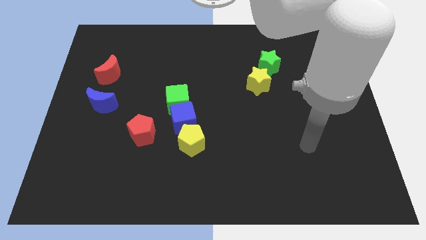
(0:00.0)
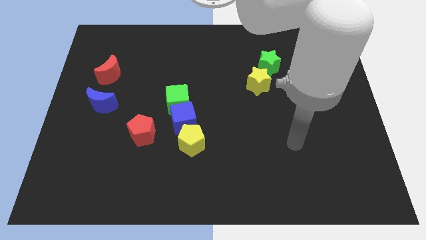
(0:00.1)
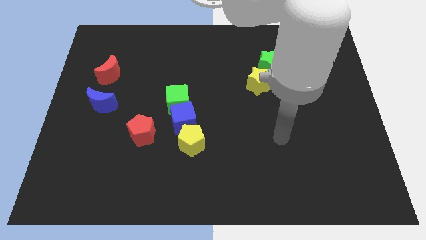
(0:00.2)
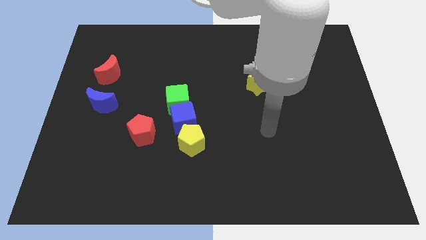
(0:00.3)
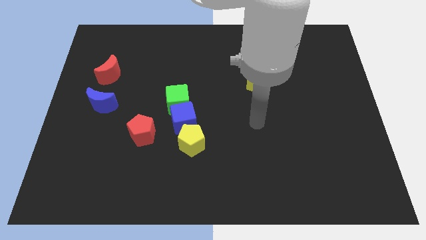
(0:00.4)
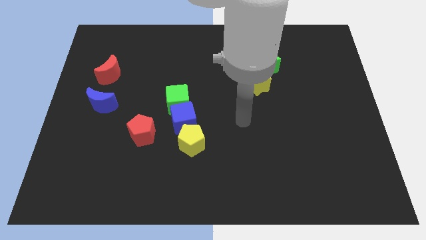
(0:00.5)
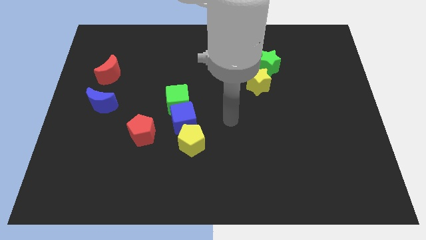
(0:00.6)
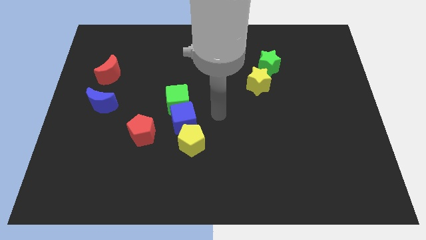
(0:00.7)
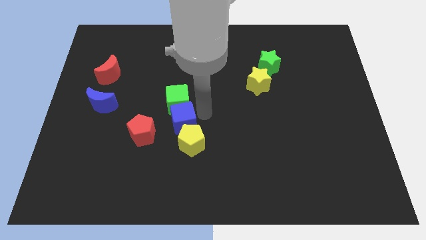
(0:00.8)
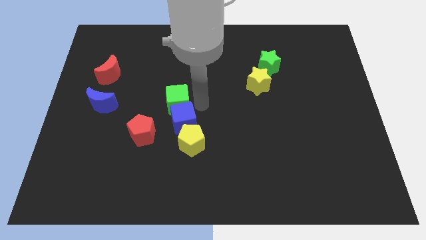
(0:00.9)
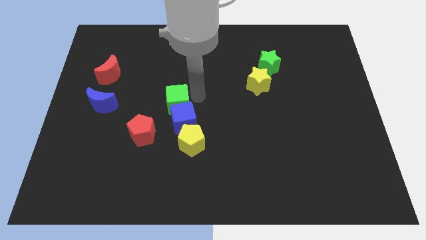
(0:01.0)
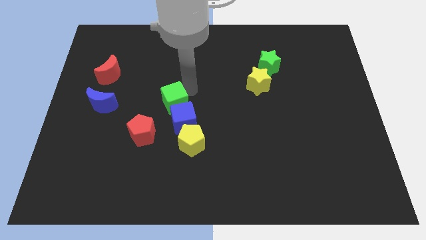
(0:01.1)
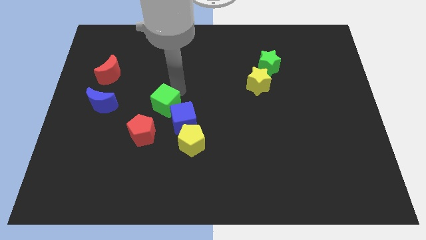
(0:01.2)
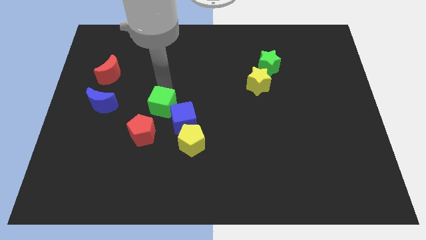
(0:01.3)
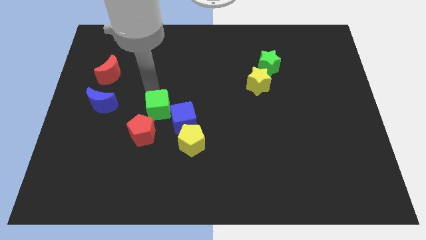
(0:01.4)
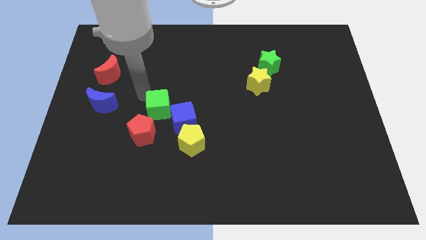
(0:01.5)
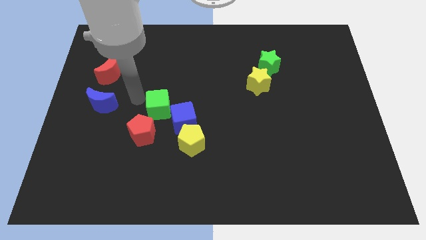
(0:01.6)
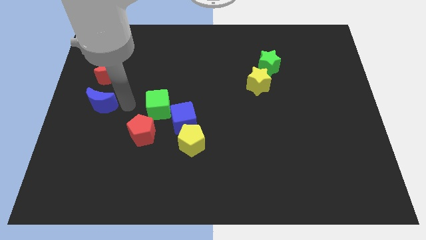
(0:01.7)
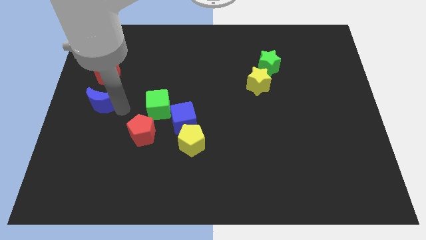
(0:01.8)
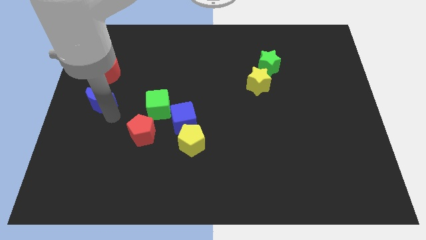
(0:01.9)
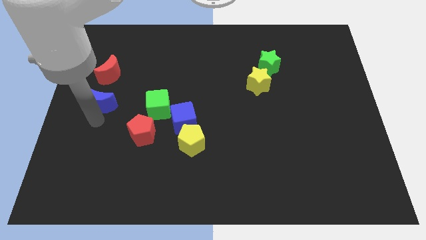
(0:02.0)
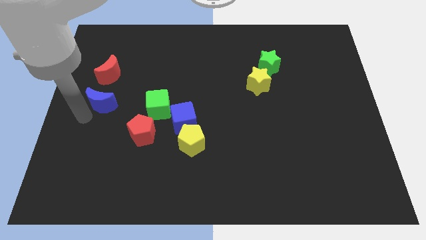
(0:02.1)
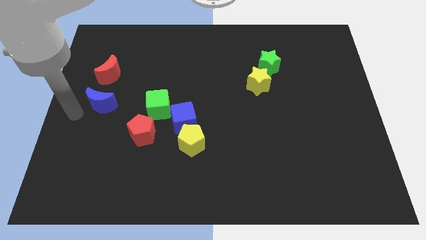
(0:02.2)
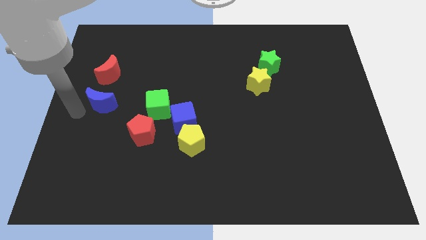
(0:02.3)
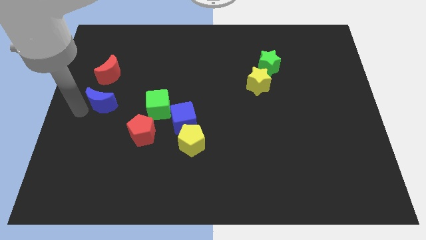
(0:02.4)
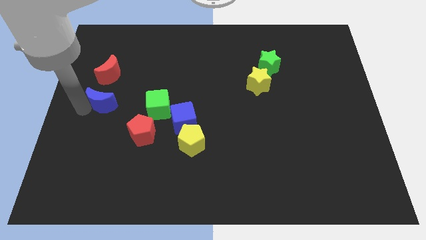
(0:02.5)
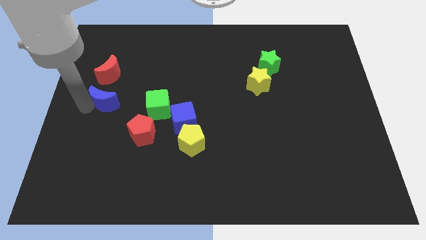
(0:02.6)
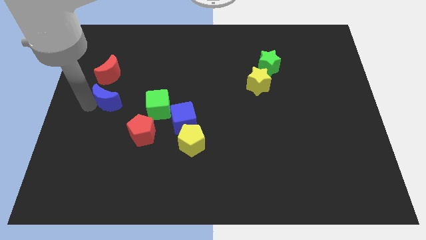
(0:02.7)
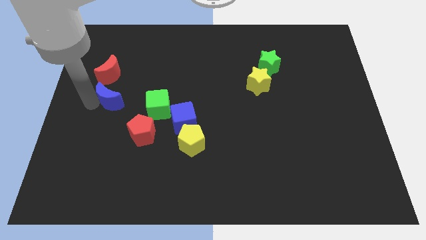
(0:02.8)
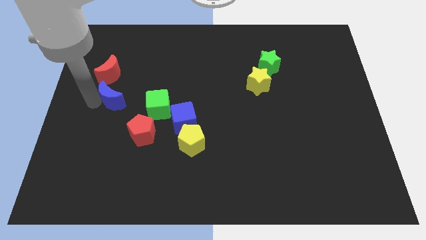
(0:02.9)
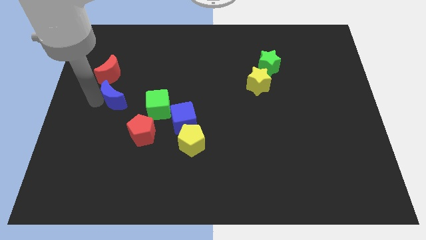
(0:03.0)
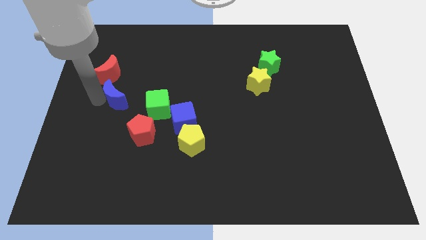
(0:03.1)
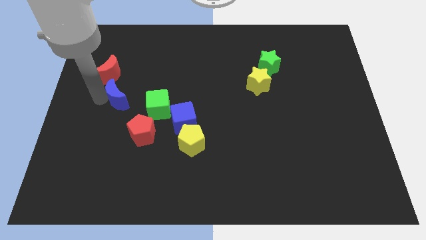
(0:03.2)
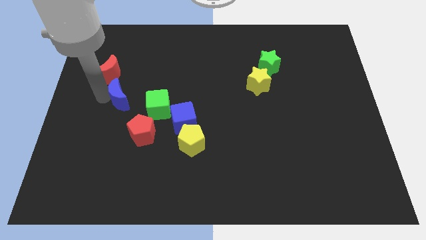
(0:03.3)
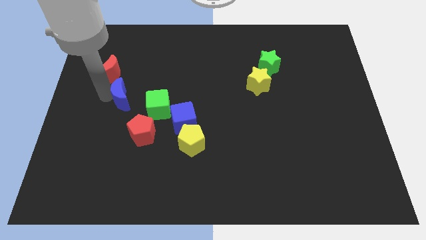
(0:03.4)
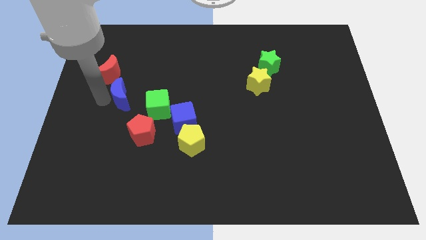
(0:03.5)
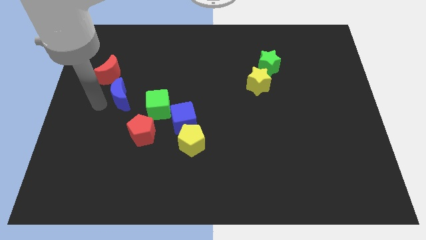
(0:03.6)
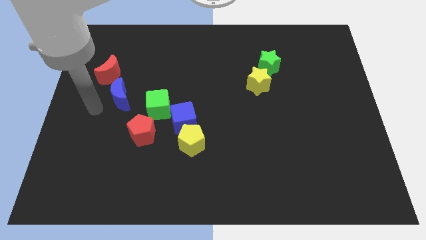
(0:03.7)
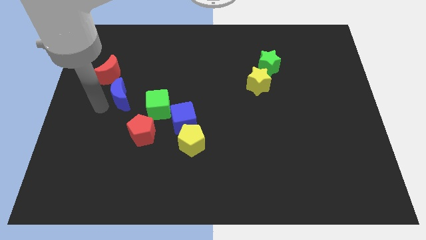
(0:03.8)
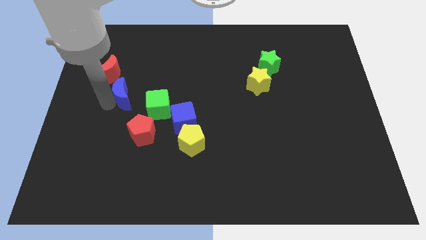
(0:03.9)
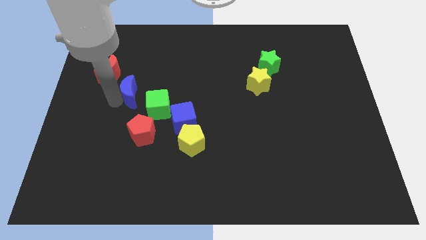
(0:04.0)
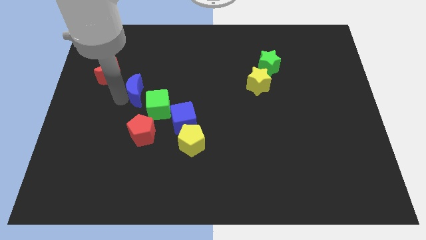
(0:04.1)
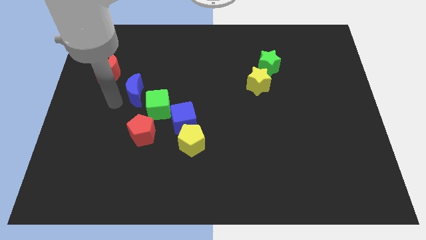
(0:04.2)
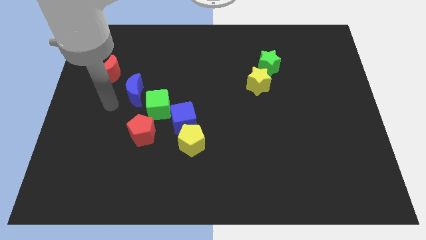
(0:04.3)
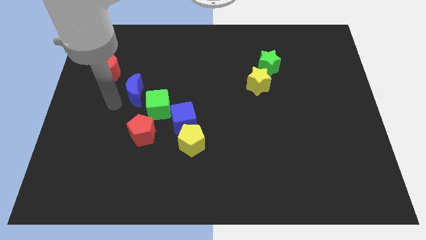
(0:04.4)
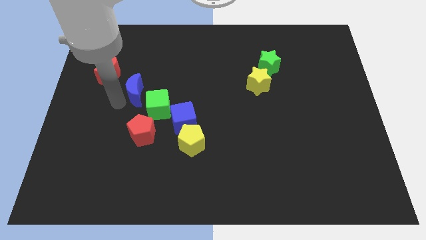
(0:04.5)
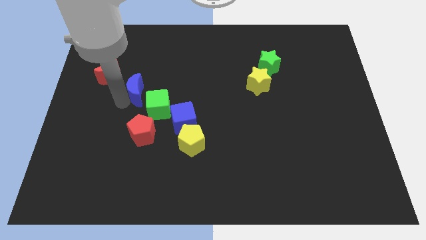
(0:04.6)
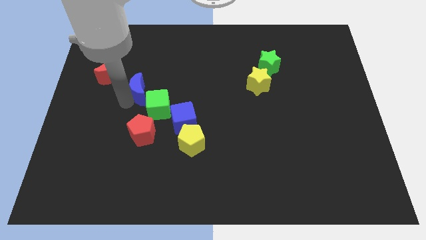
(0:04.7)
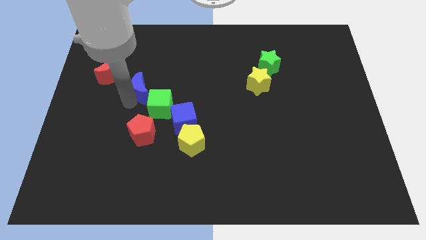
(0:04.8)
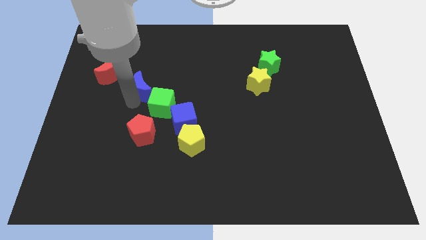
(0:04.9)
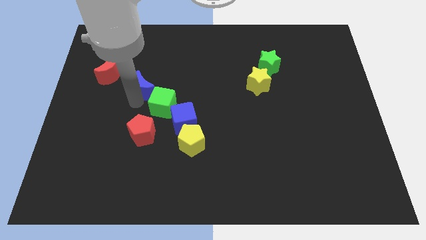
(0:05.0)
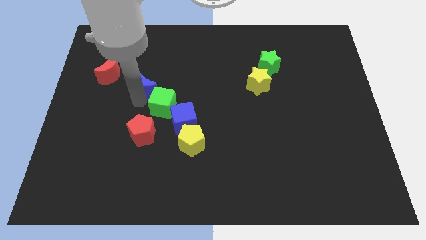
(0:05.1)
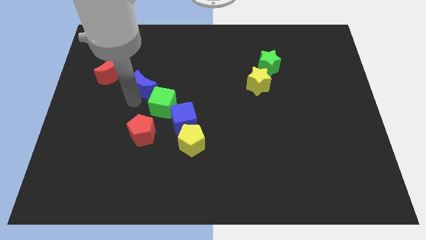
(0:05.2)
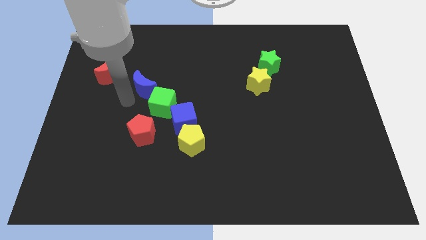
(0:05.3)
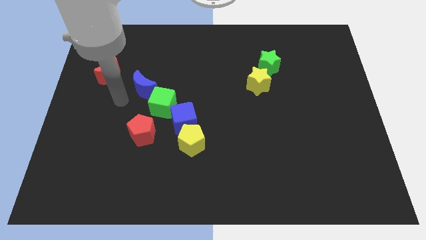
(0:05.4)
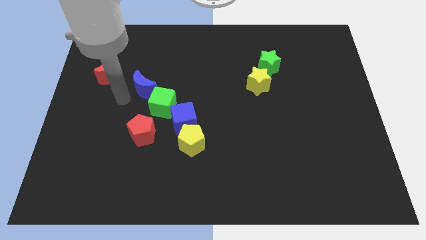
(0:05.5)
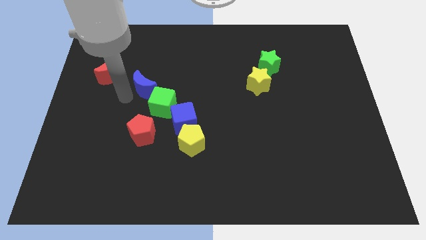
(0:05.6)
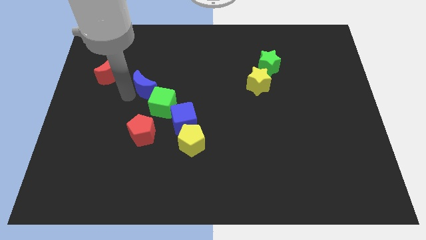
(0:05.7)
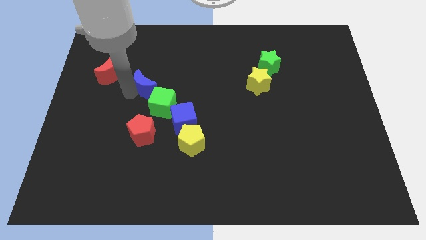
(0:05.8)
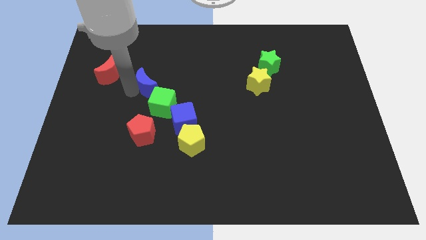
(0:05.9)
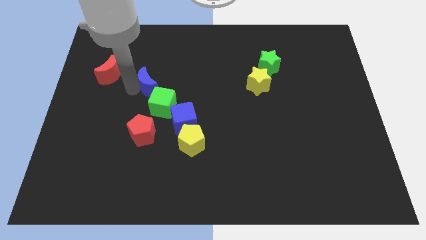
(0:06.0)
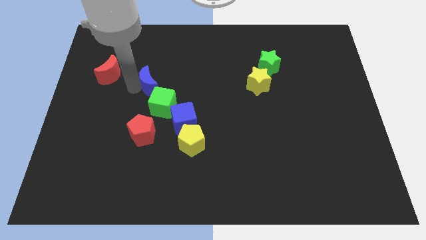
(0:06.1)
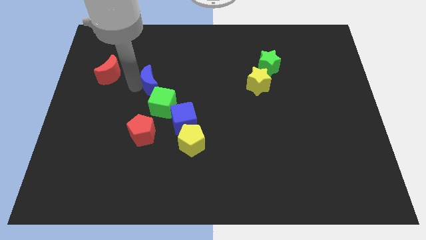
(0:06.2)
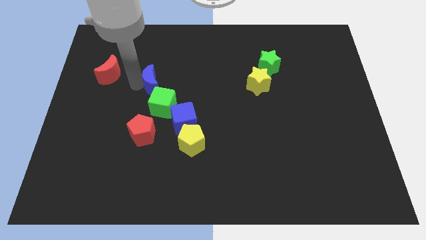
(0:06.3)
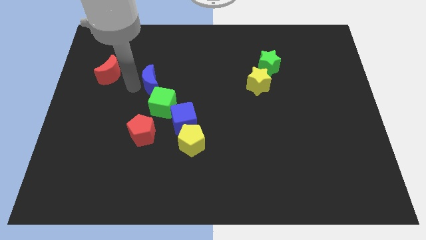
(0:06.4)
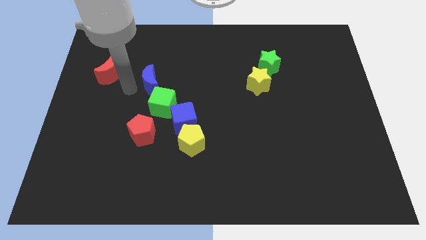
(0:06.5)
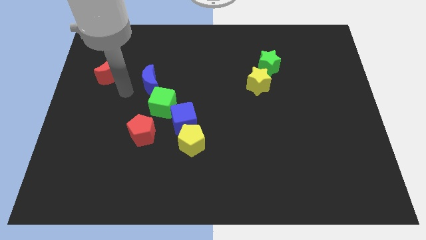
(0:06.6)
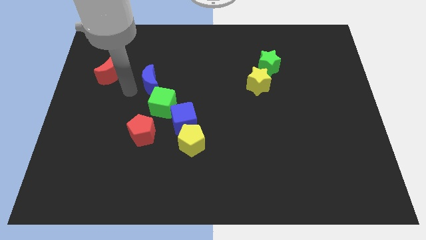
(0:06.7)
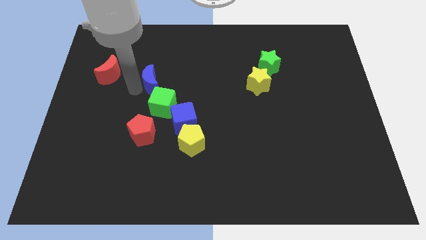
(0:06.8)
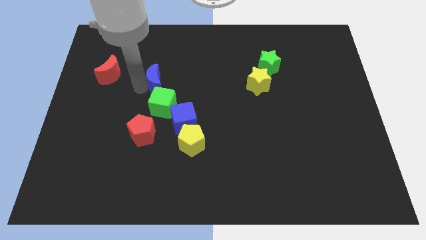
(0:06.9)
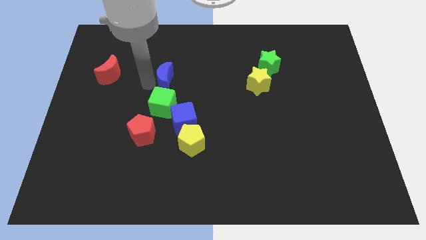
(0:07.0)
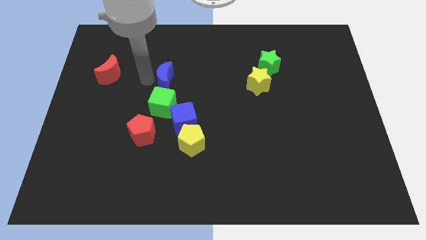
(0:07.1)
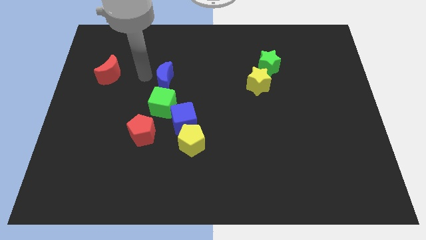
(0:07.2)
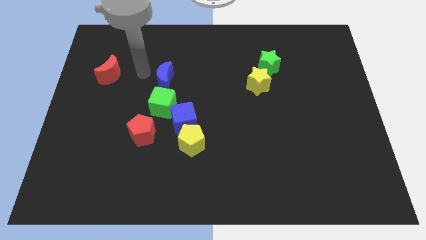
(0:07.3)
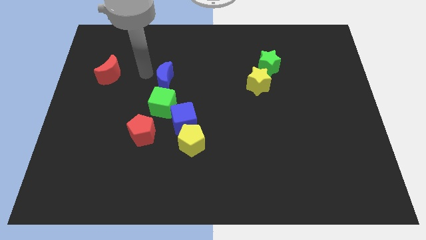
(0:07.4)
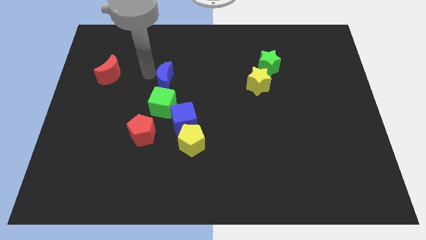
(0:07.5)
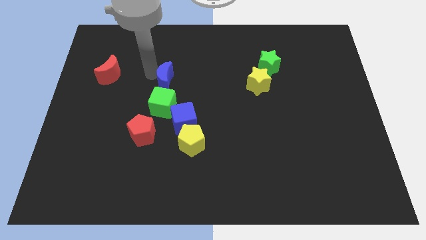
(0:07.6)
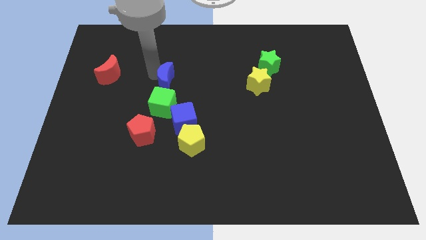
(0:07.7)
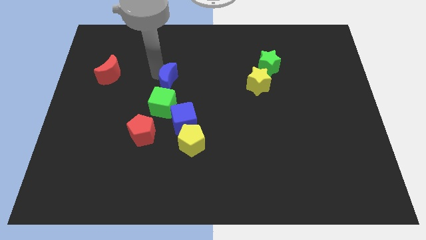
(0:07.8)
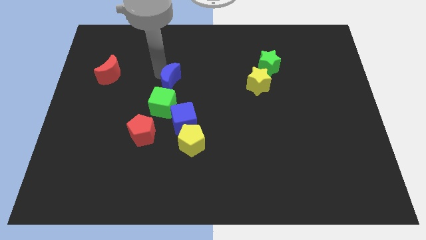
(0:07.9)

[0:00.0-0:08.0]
move the blue moon to the top right side of the green cube
